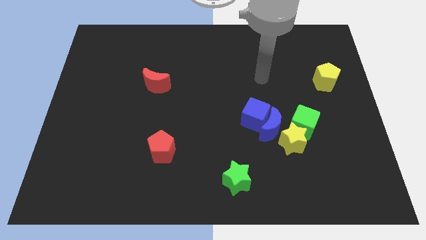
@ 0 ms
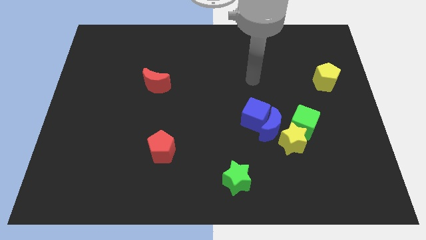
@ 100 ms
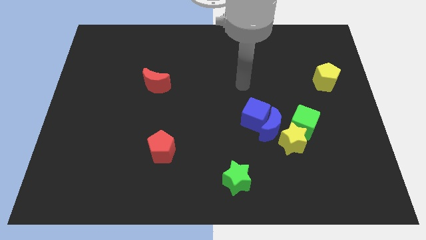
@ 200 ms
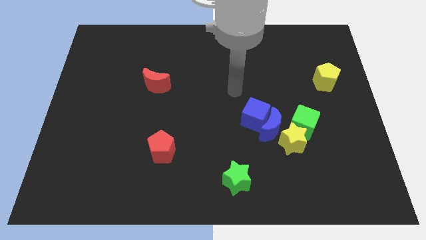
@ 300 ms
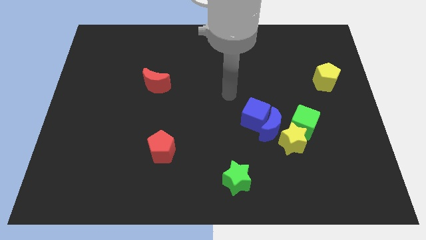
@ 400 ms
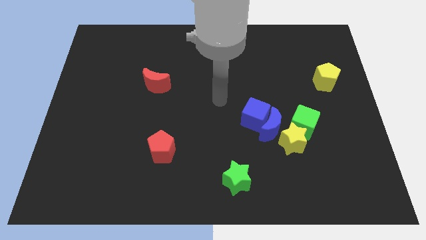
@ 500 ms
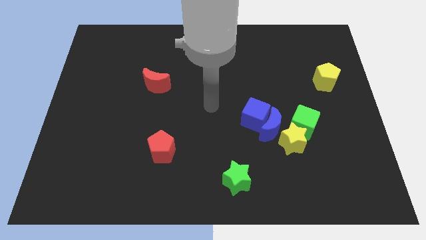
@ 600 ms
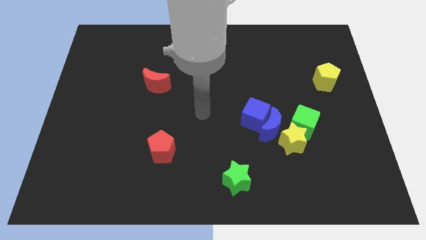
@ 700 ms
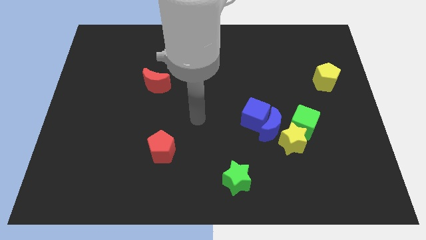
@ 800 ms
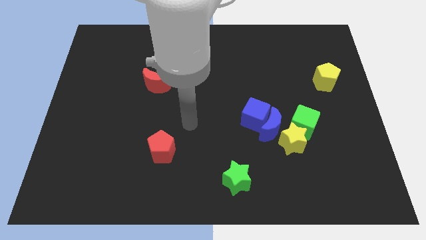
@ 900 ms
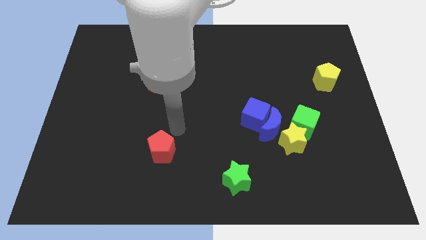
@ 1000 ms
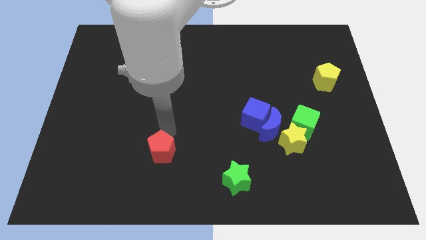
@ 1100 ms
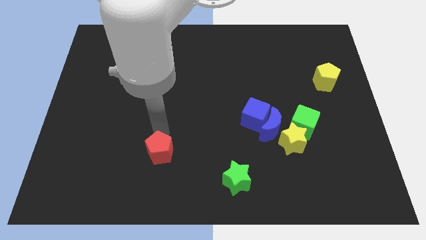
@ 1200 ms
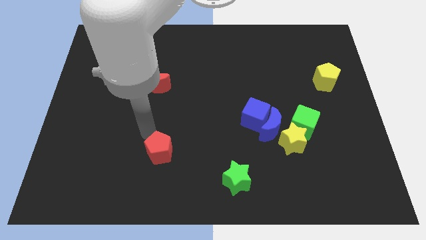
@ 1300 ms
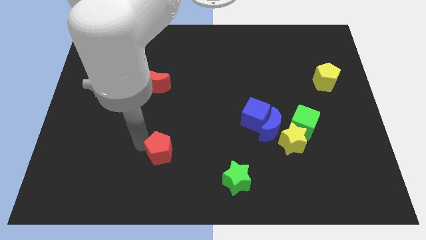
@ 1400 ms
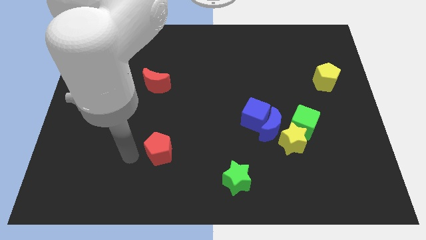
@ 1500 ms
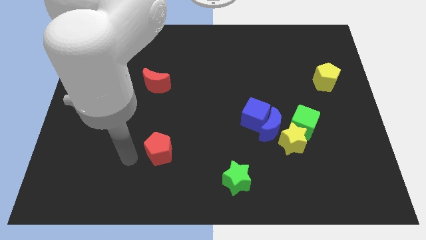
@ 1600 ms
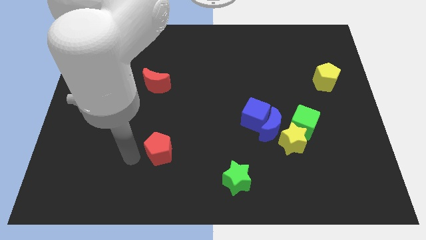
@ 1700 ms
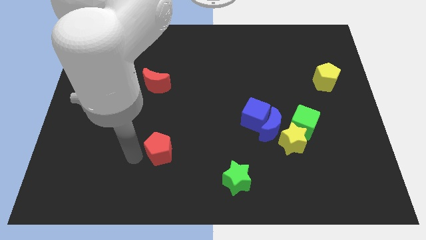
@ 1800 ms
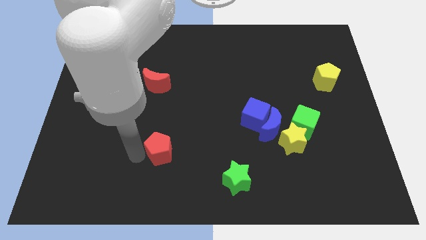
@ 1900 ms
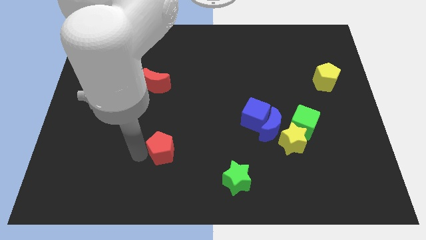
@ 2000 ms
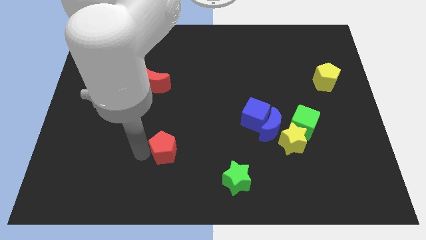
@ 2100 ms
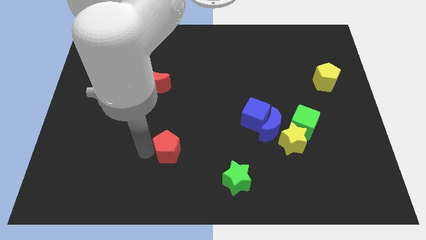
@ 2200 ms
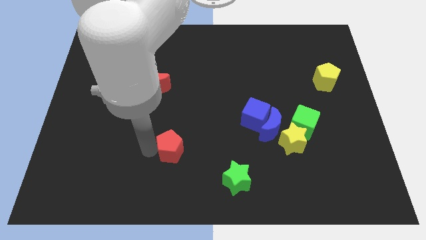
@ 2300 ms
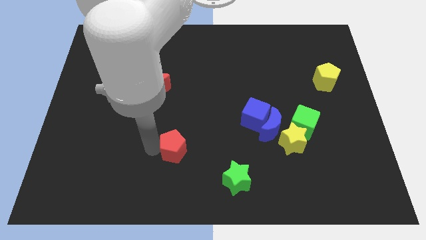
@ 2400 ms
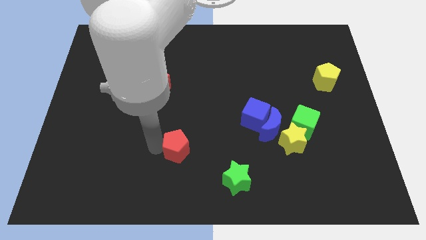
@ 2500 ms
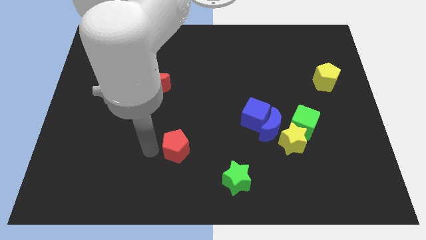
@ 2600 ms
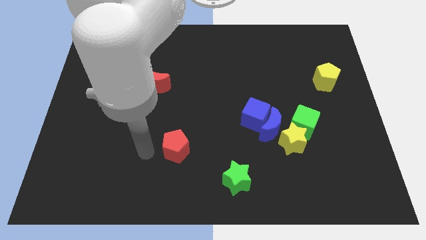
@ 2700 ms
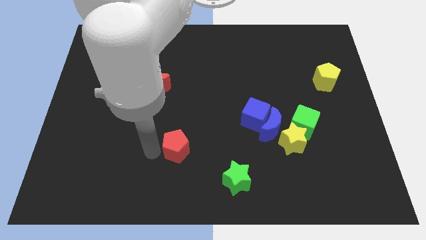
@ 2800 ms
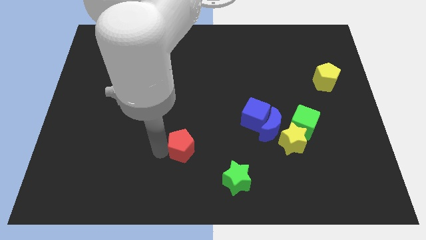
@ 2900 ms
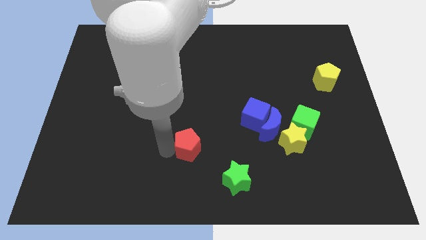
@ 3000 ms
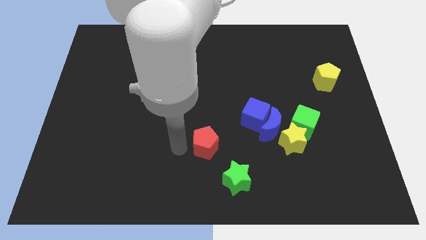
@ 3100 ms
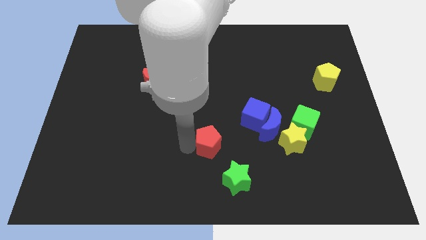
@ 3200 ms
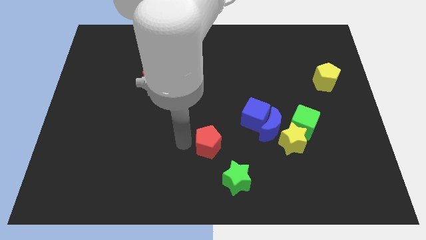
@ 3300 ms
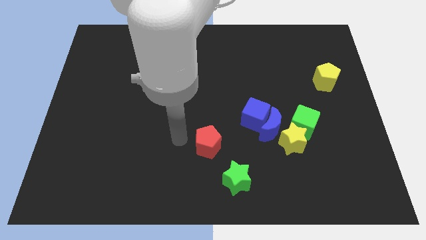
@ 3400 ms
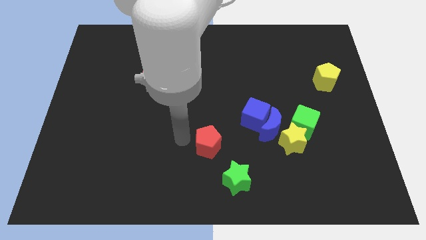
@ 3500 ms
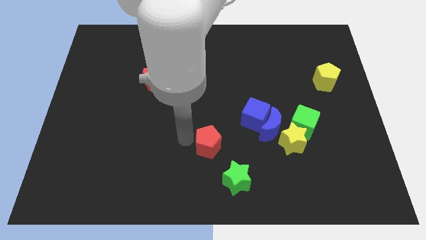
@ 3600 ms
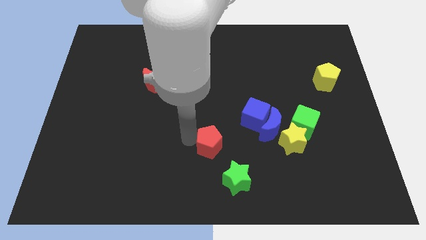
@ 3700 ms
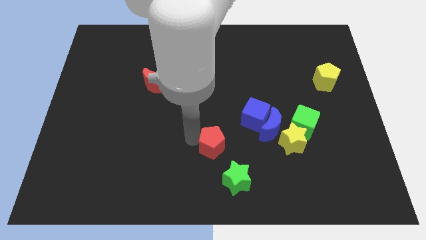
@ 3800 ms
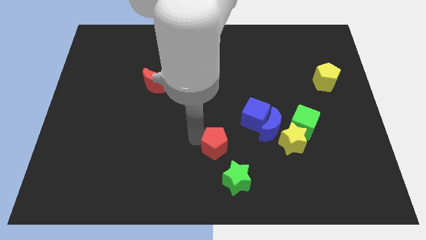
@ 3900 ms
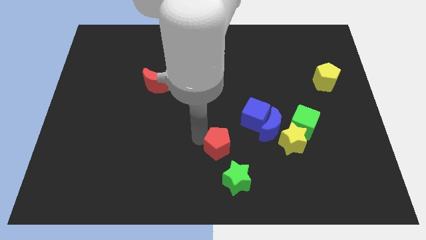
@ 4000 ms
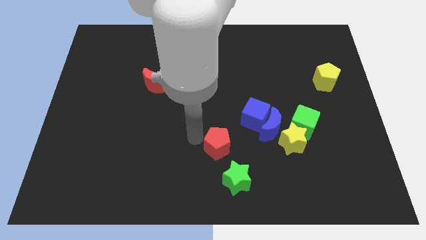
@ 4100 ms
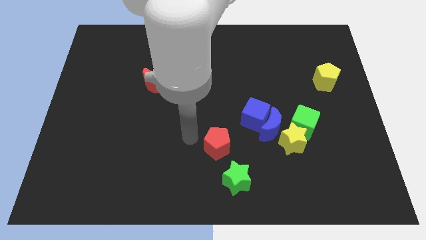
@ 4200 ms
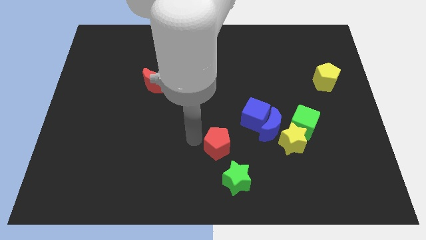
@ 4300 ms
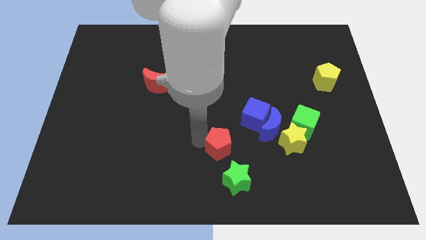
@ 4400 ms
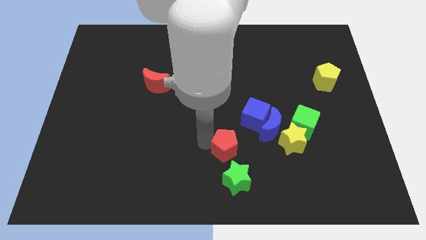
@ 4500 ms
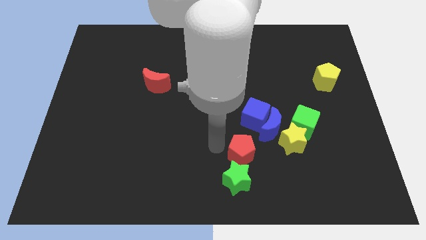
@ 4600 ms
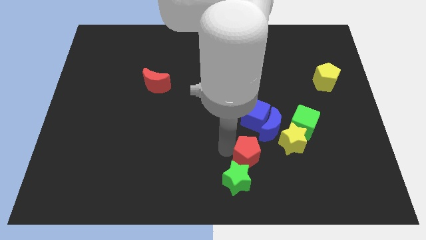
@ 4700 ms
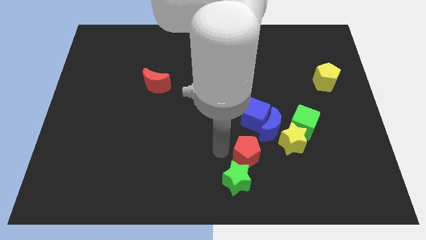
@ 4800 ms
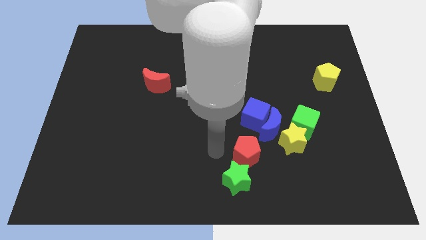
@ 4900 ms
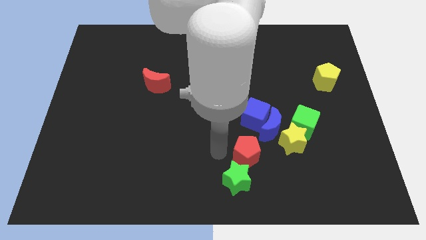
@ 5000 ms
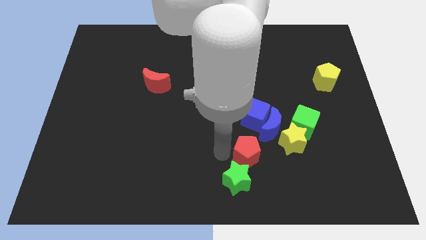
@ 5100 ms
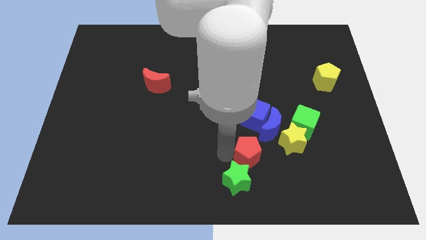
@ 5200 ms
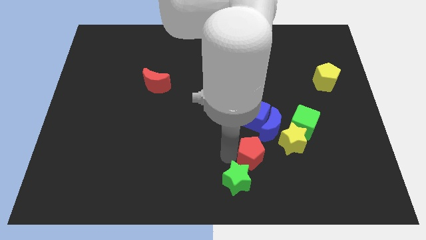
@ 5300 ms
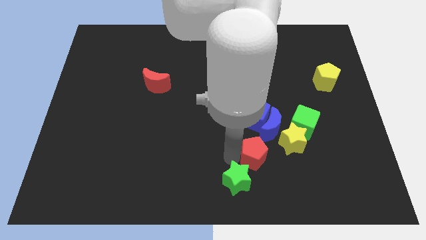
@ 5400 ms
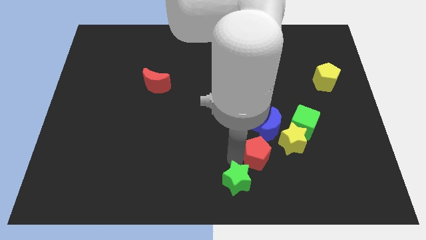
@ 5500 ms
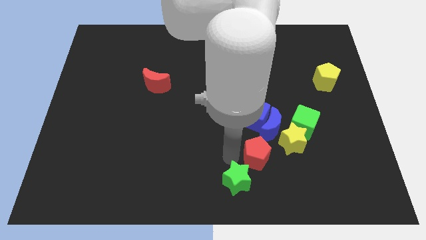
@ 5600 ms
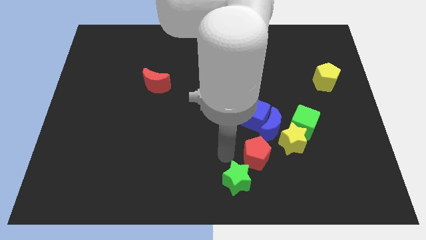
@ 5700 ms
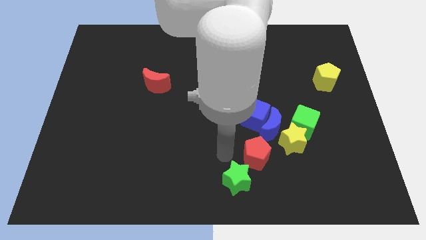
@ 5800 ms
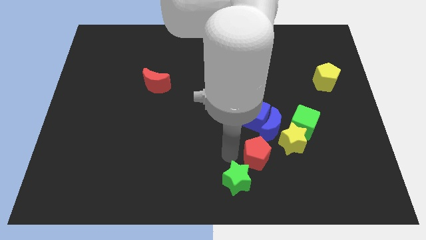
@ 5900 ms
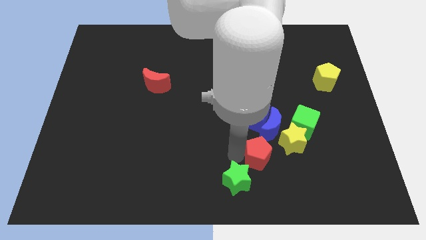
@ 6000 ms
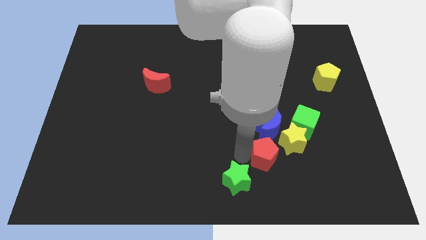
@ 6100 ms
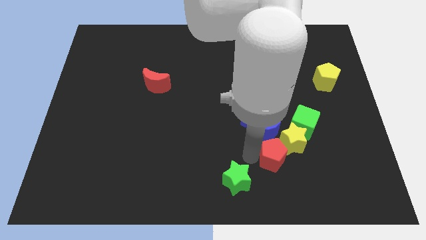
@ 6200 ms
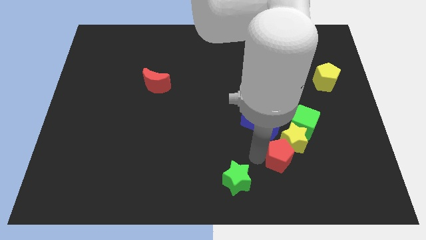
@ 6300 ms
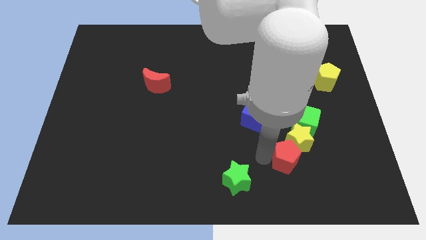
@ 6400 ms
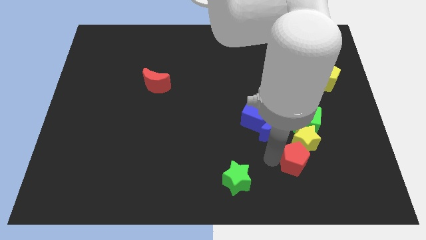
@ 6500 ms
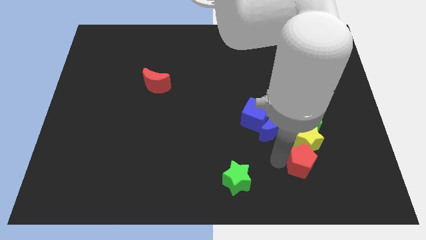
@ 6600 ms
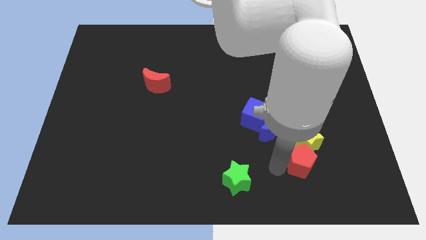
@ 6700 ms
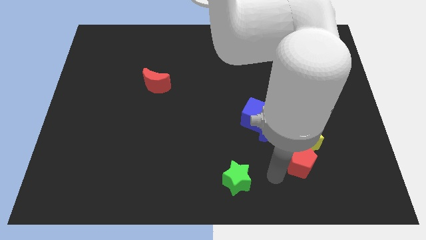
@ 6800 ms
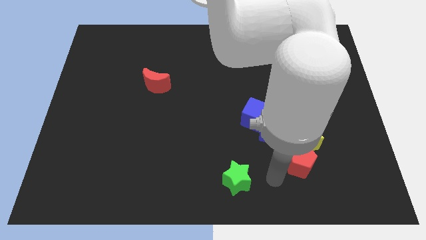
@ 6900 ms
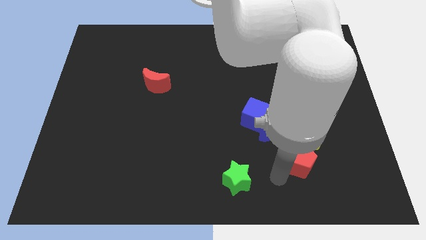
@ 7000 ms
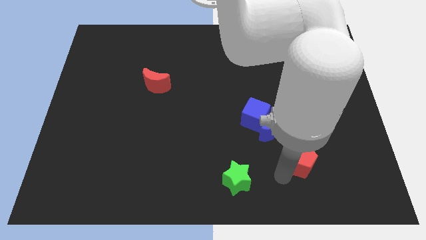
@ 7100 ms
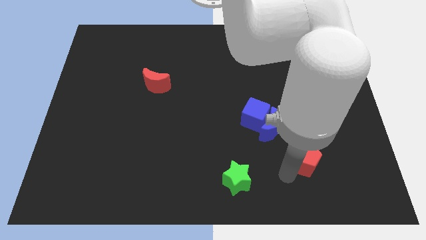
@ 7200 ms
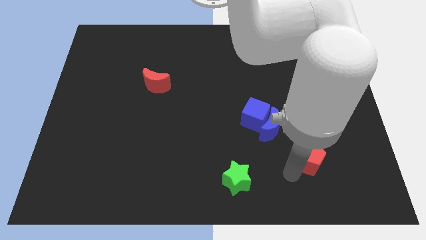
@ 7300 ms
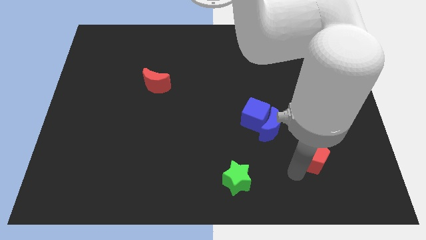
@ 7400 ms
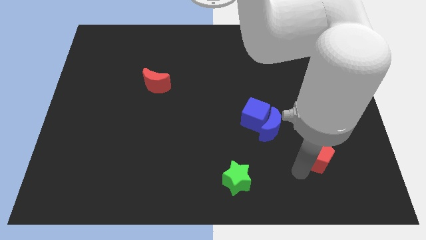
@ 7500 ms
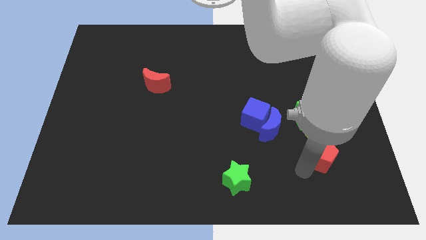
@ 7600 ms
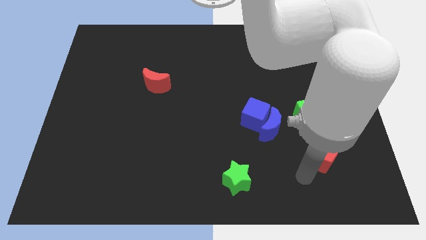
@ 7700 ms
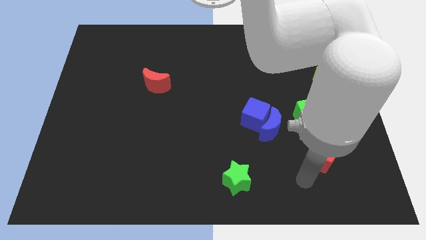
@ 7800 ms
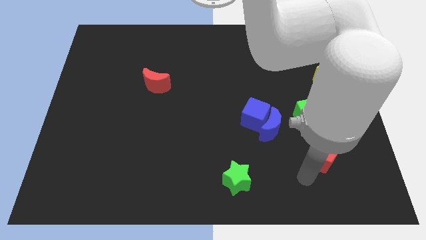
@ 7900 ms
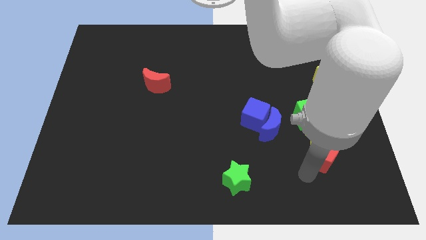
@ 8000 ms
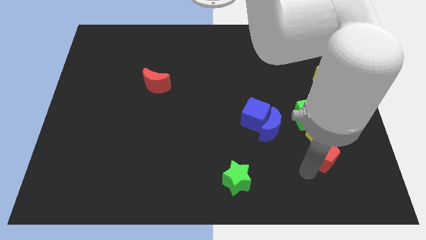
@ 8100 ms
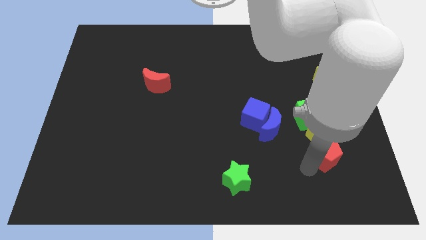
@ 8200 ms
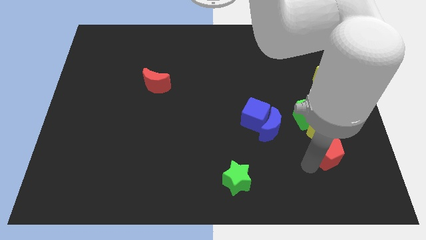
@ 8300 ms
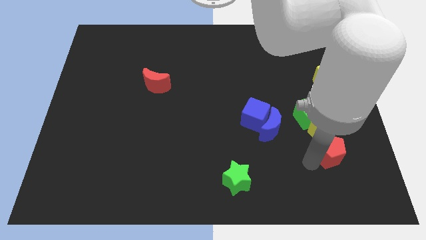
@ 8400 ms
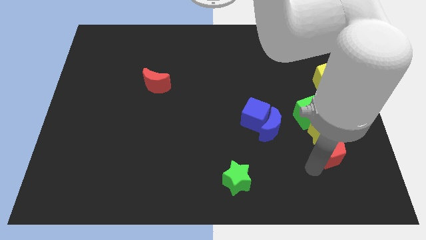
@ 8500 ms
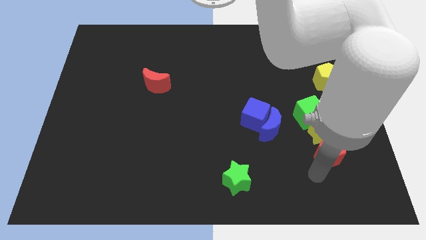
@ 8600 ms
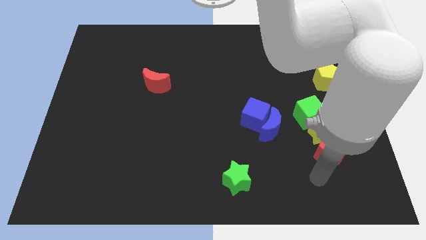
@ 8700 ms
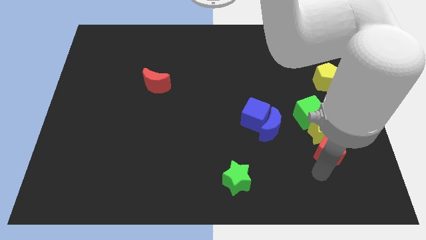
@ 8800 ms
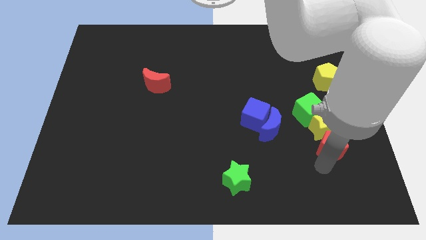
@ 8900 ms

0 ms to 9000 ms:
push the red pentagon to the bottom right side of the green cube
